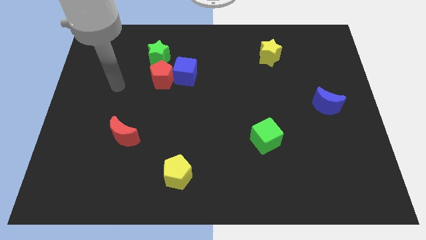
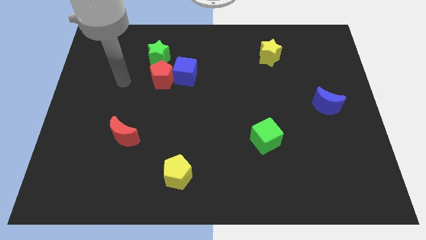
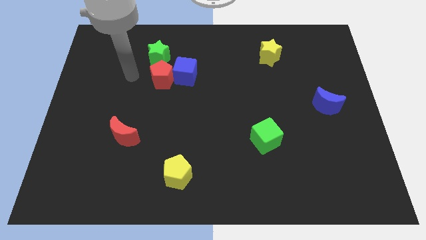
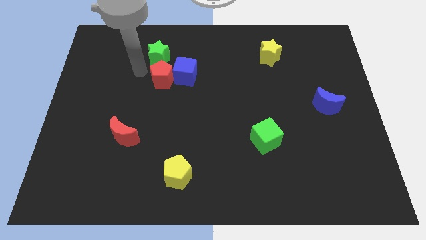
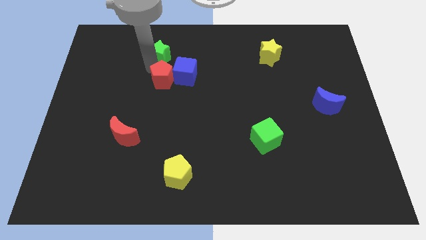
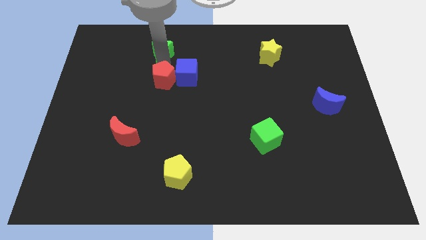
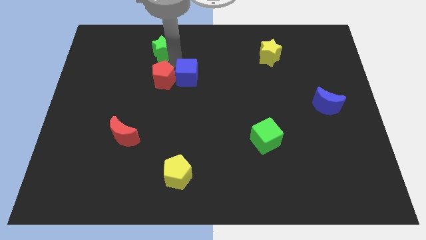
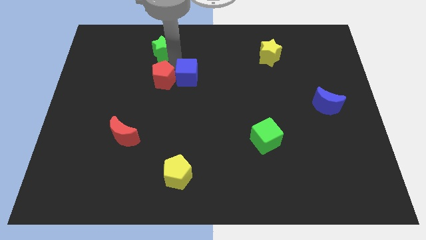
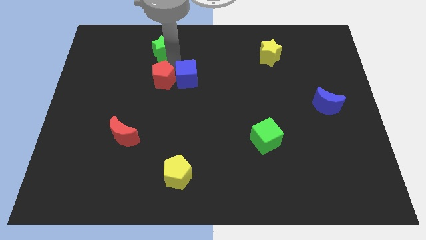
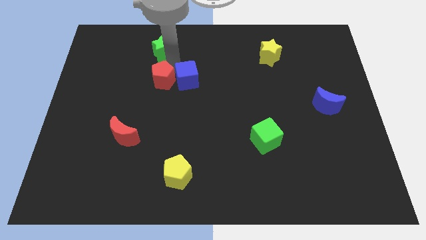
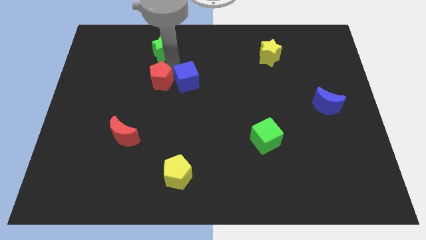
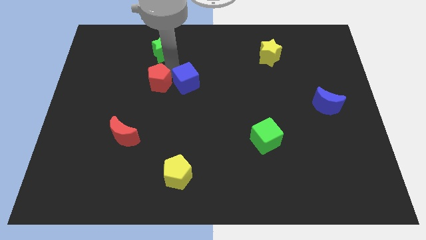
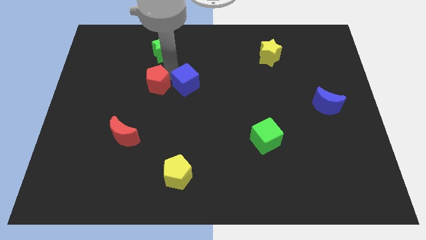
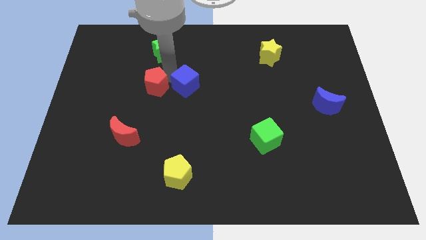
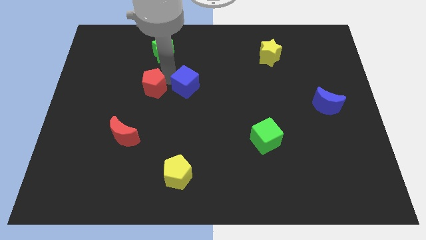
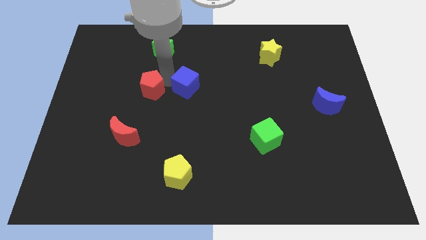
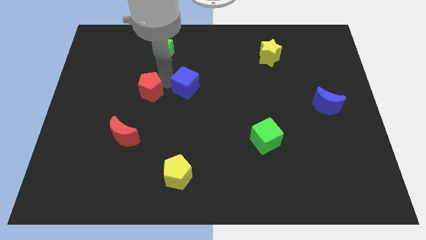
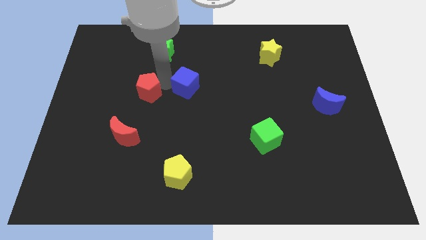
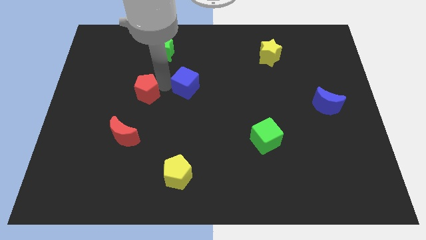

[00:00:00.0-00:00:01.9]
pull the red pentagon apart from the blue cube and green star

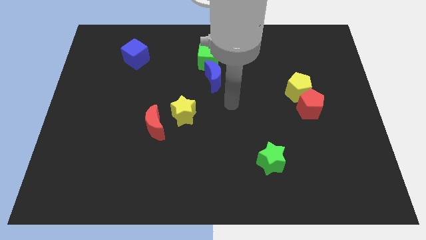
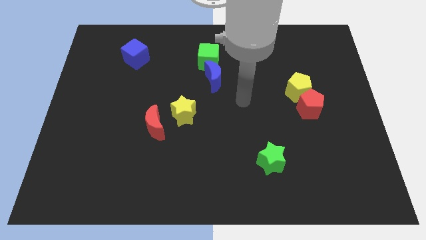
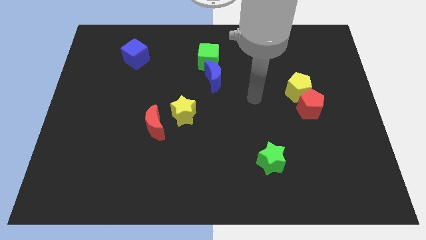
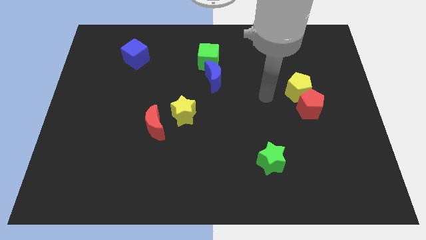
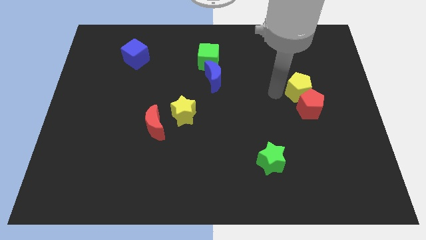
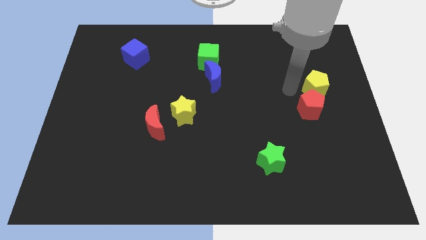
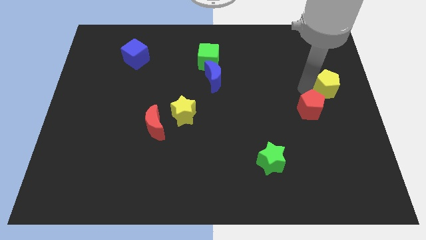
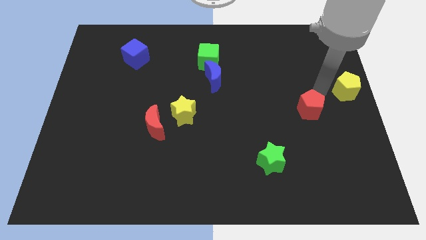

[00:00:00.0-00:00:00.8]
move the red pentagon away from the yellow pentagon

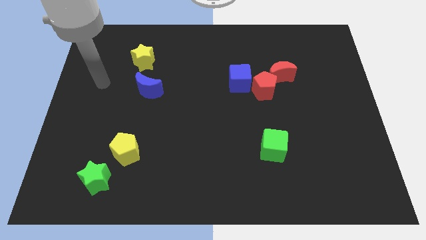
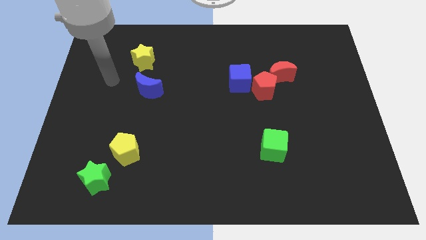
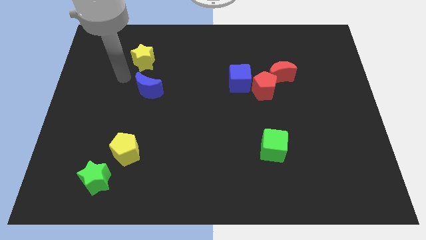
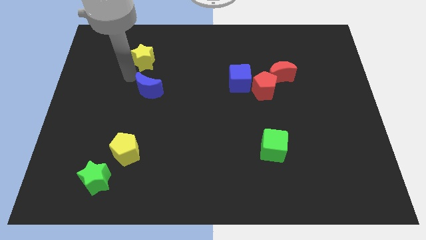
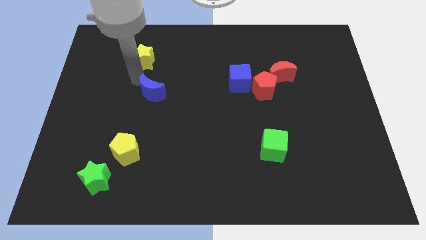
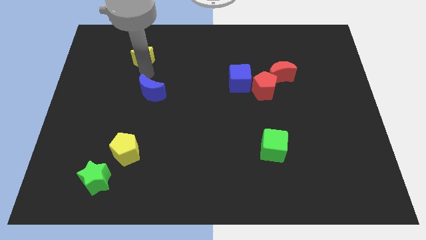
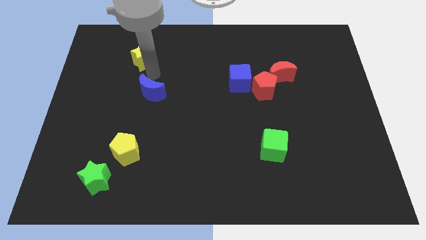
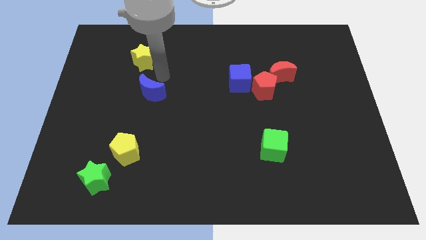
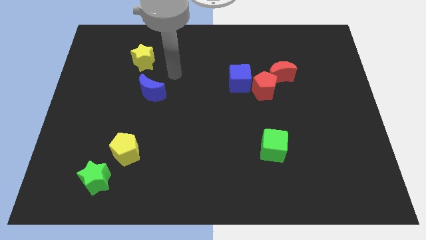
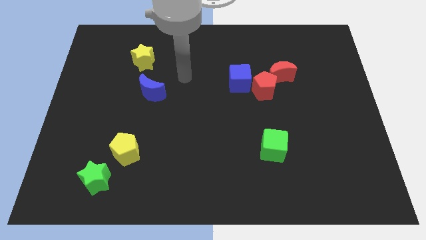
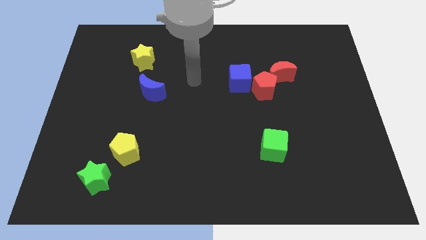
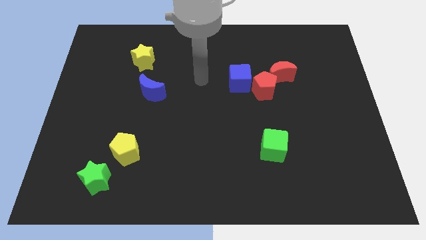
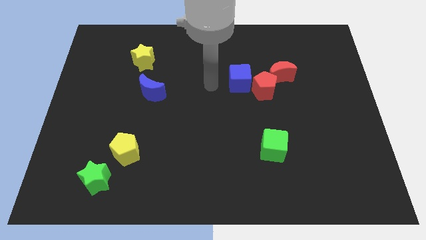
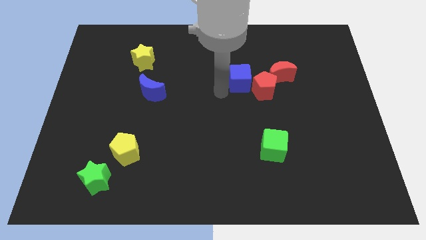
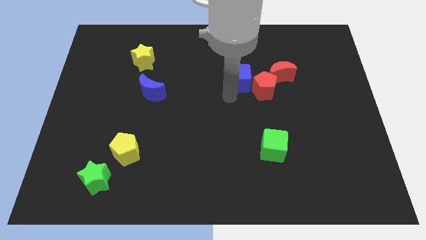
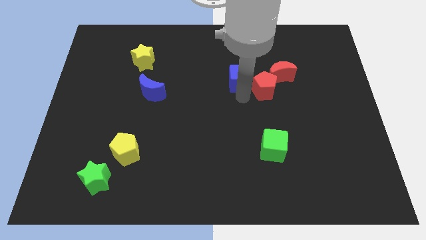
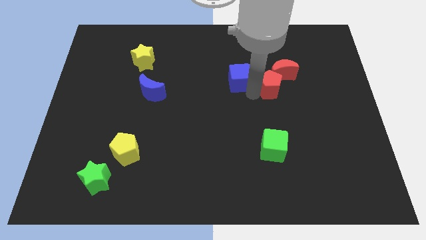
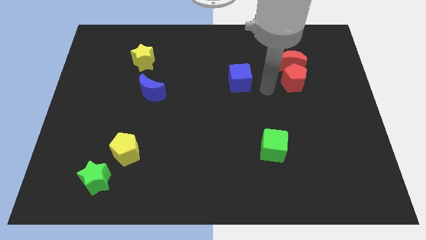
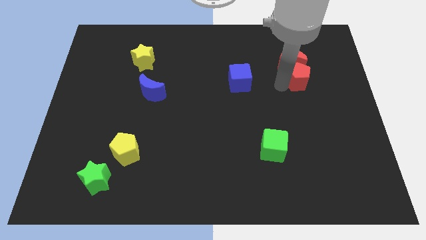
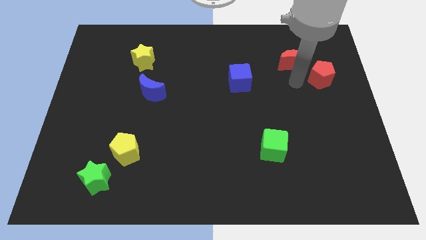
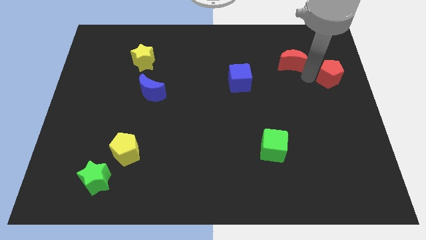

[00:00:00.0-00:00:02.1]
separate the red moon from the red pentagon

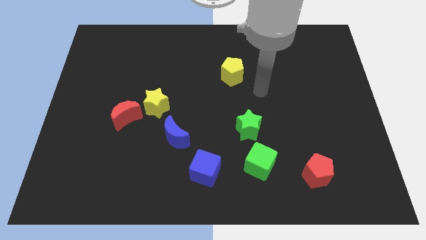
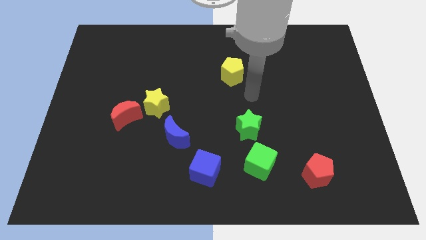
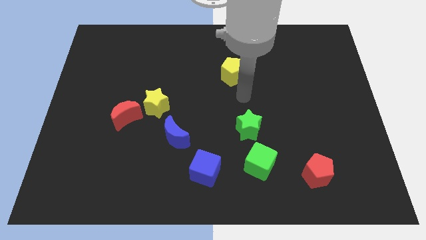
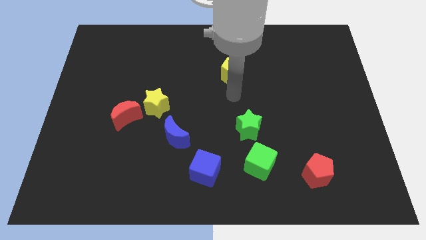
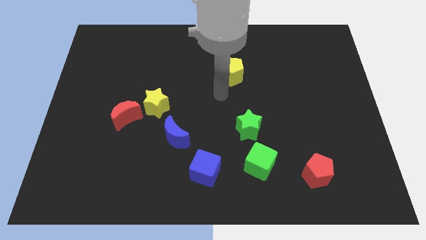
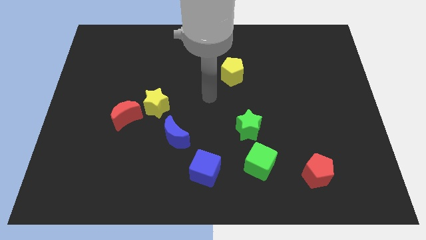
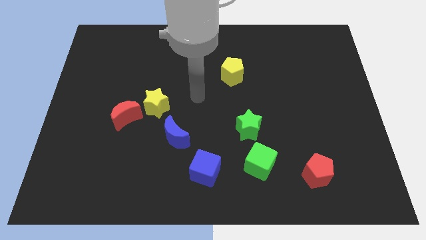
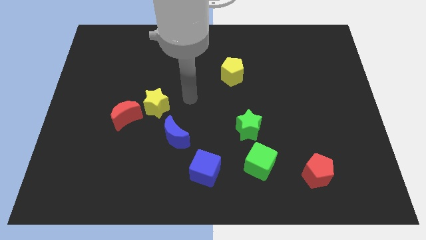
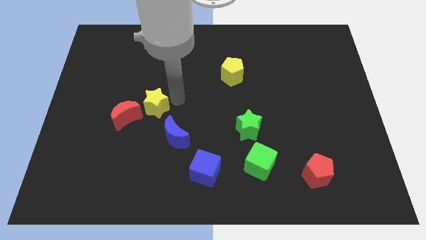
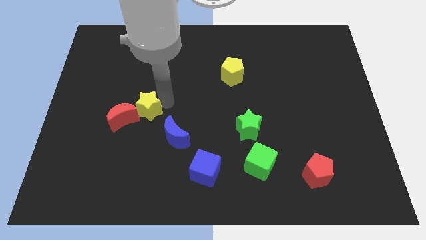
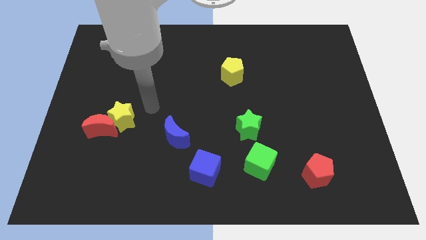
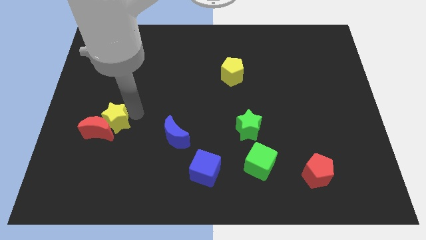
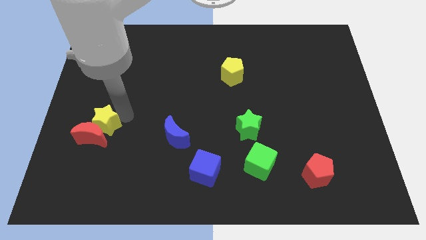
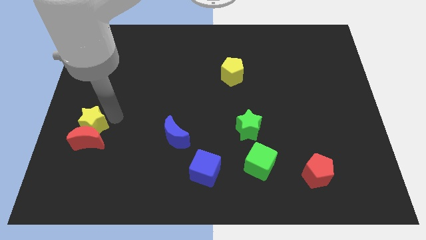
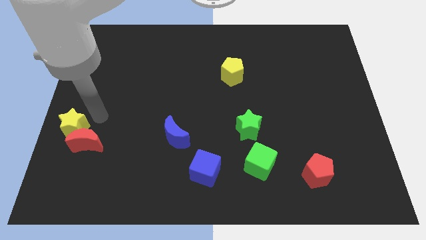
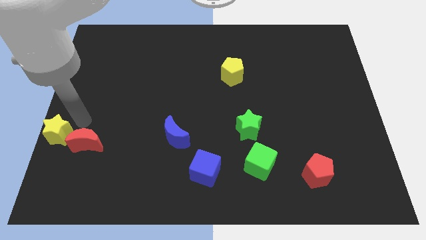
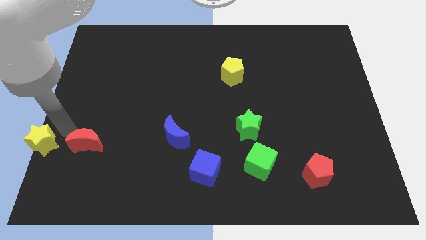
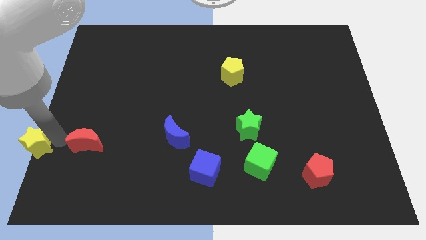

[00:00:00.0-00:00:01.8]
separate the red moon from the yellow star

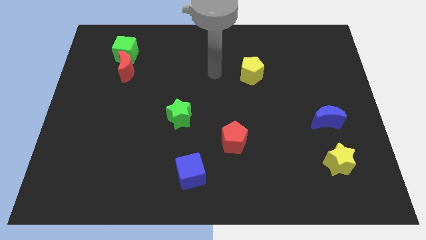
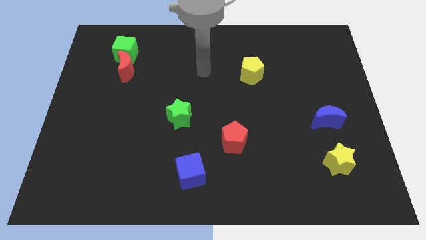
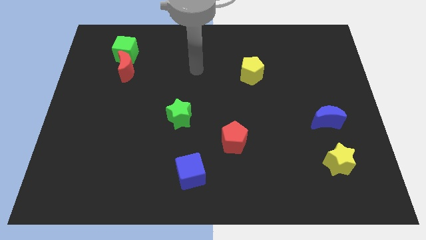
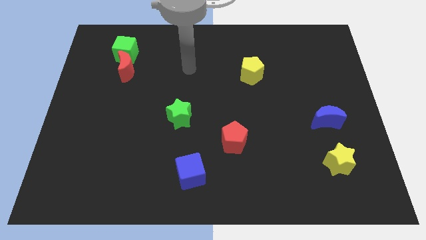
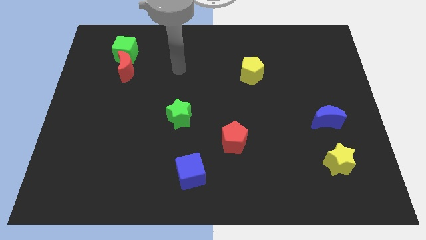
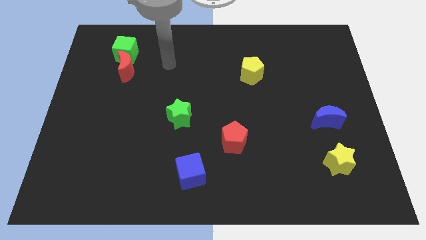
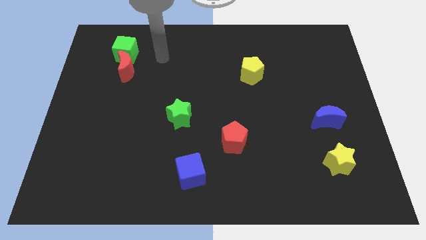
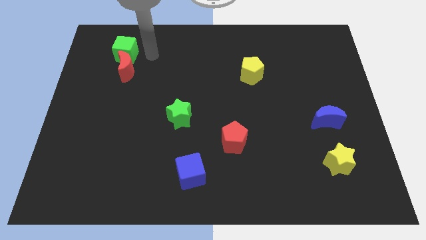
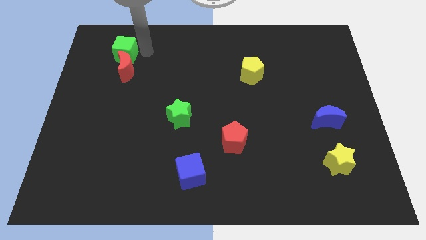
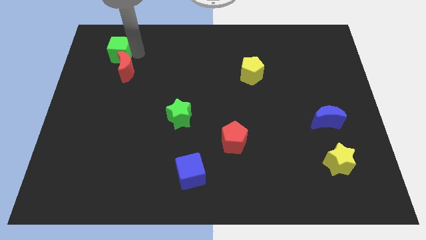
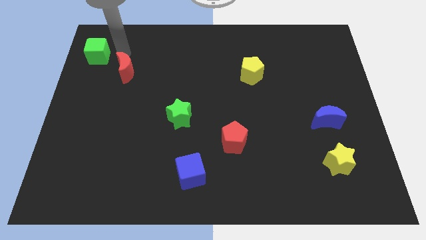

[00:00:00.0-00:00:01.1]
pull the red moon apart from the green cube

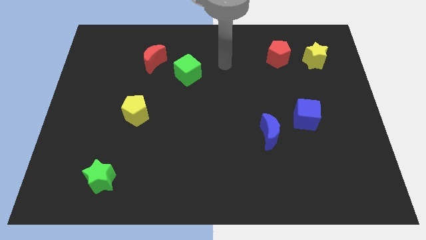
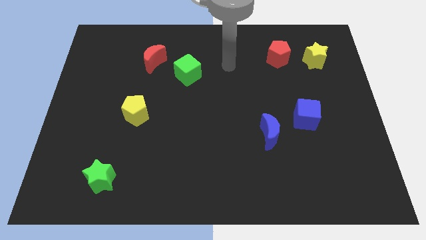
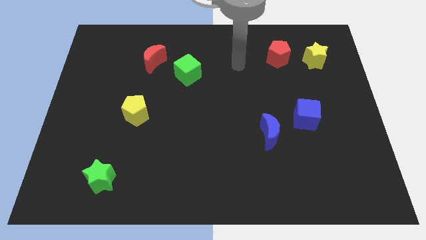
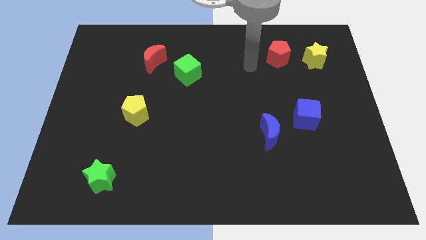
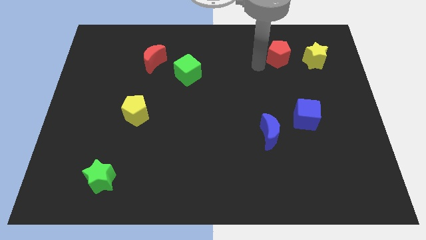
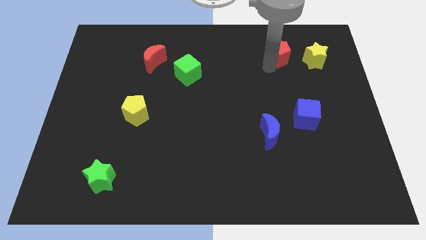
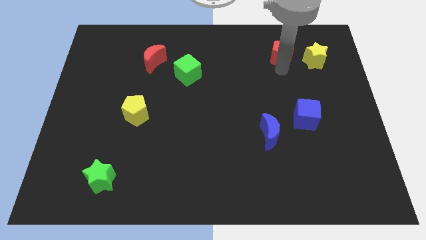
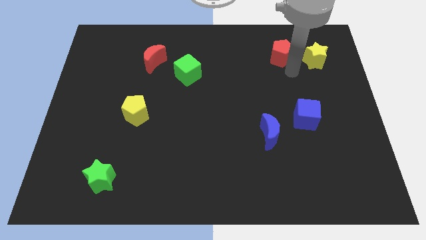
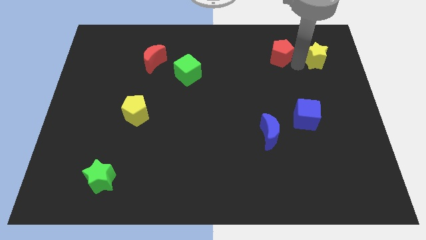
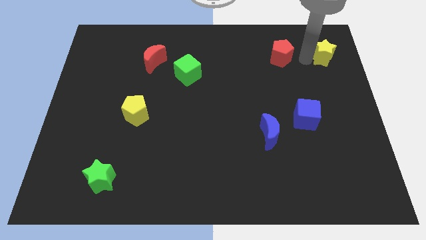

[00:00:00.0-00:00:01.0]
separate the red pentagon from the yellow star

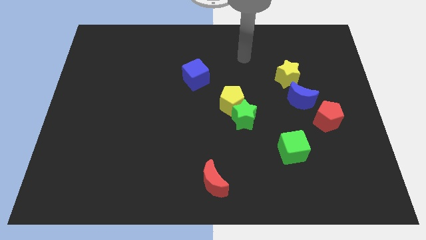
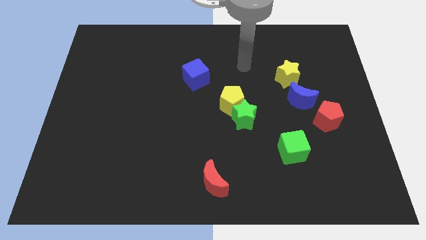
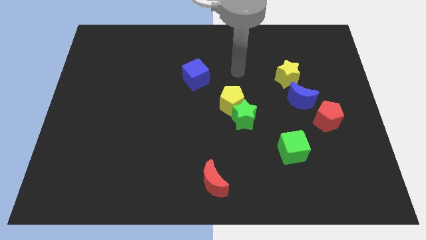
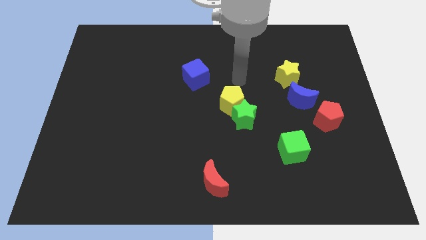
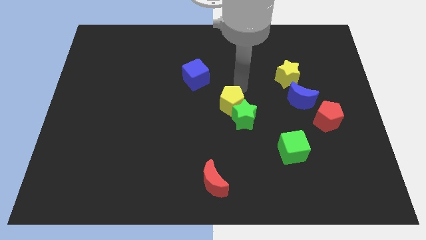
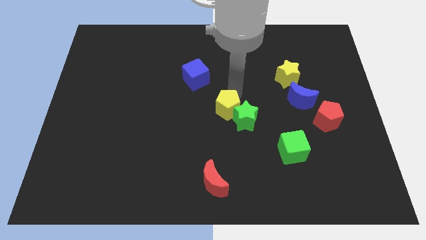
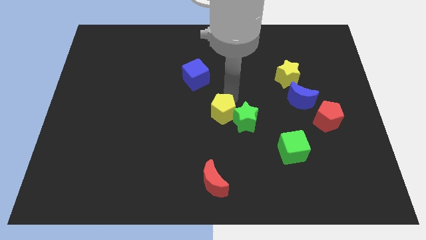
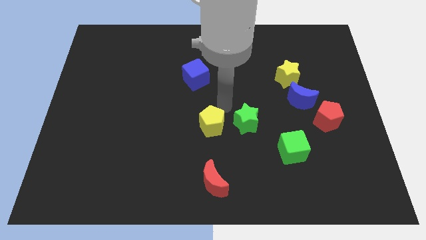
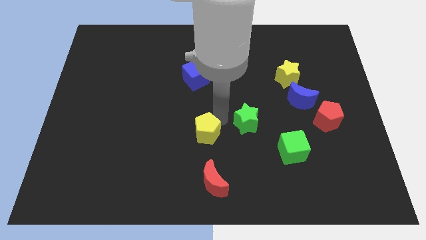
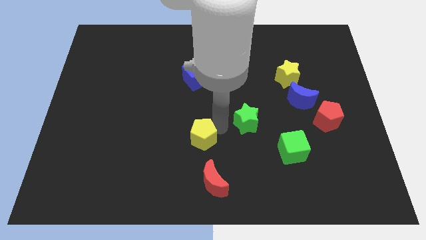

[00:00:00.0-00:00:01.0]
pull the green star apart from the yellow pentagon
